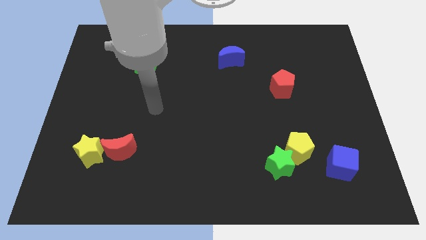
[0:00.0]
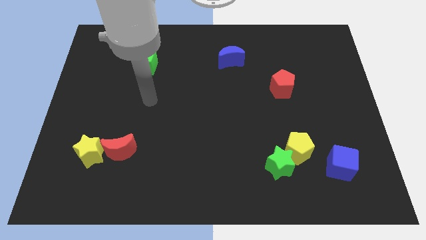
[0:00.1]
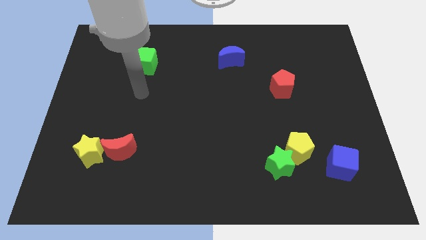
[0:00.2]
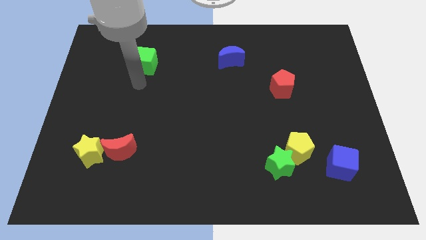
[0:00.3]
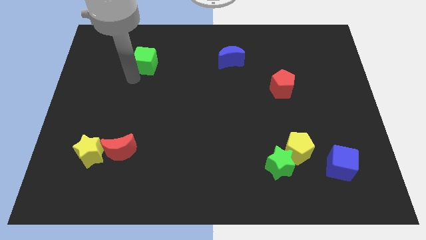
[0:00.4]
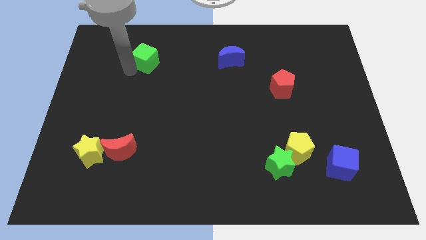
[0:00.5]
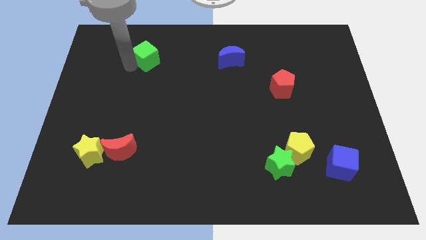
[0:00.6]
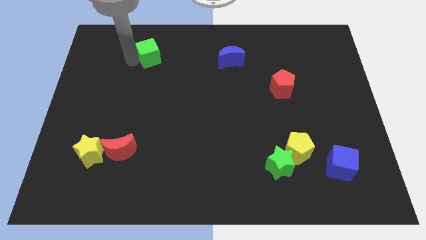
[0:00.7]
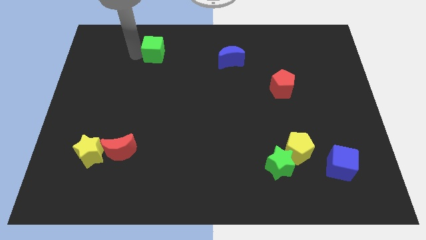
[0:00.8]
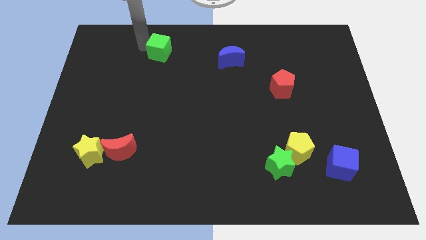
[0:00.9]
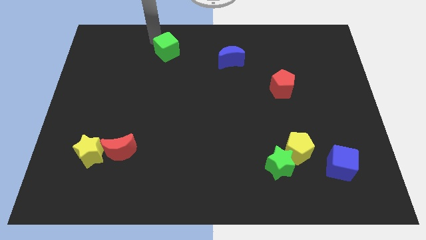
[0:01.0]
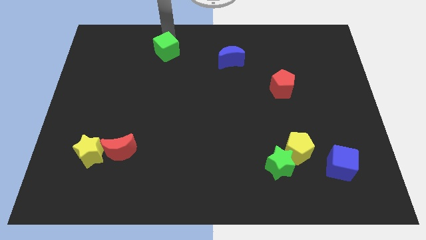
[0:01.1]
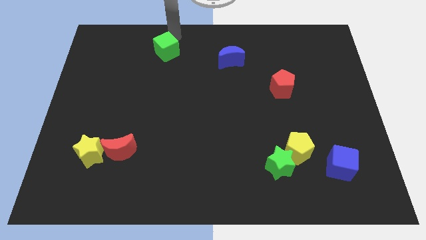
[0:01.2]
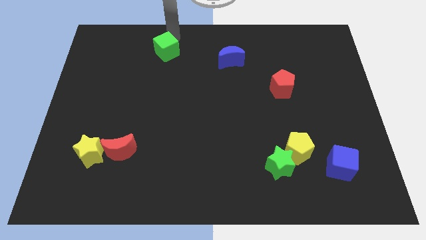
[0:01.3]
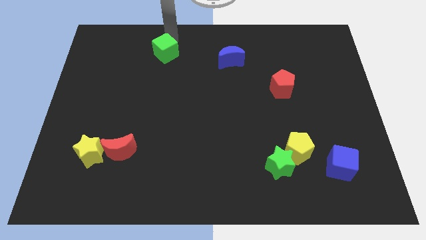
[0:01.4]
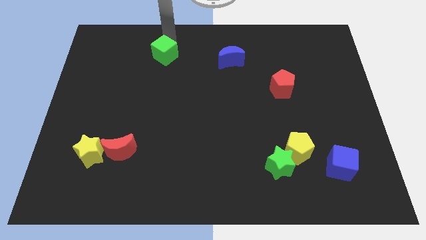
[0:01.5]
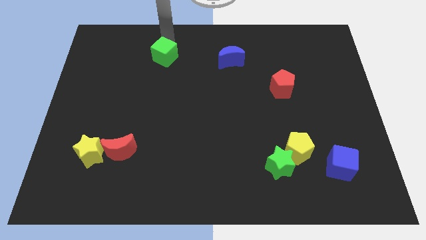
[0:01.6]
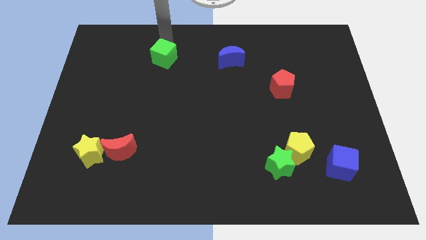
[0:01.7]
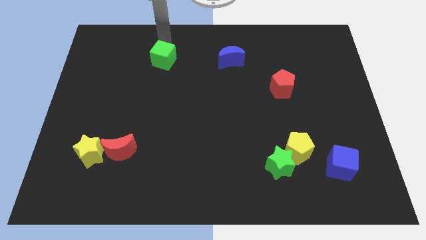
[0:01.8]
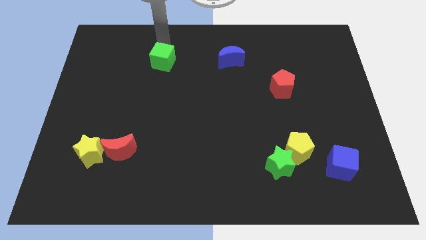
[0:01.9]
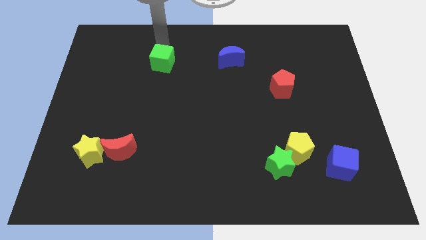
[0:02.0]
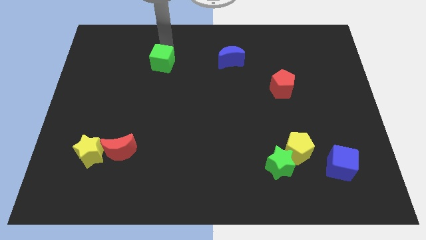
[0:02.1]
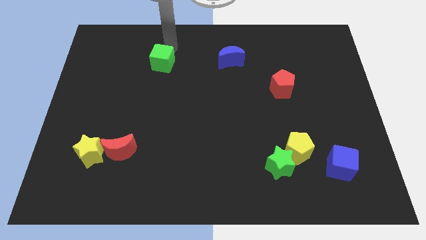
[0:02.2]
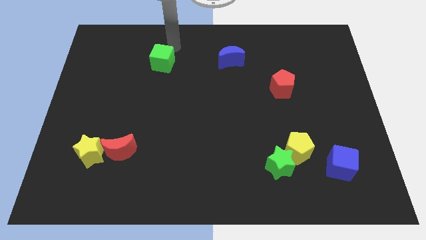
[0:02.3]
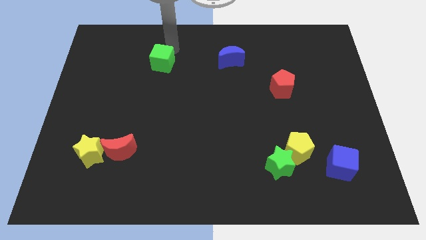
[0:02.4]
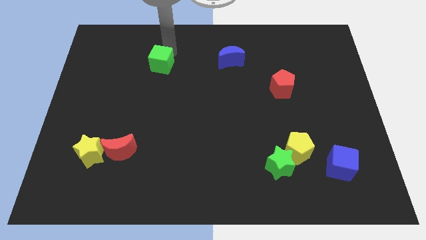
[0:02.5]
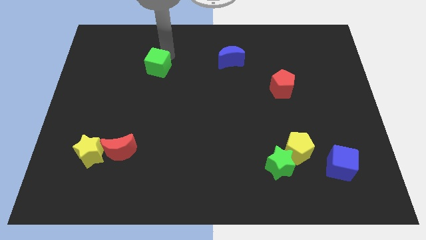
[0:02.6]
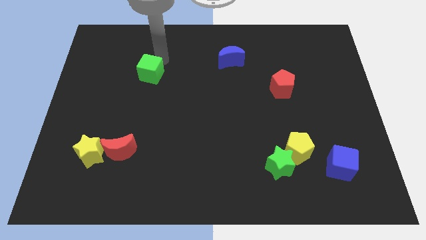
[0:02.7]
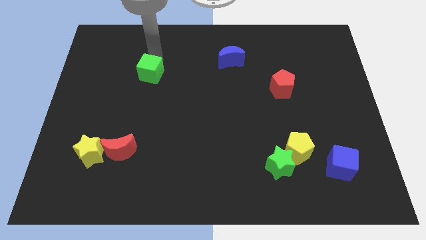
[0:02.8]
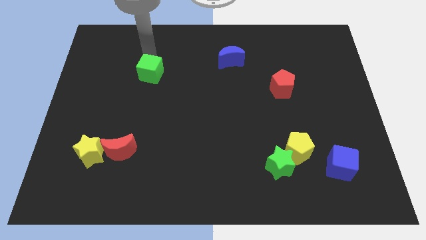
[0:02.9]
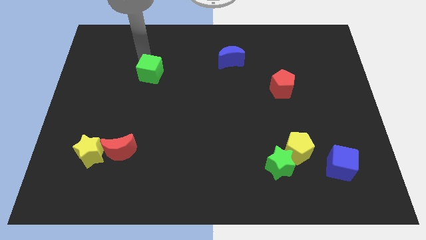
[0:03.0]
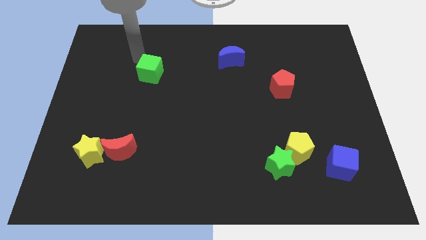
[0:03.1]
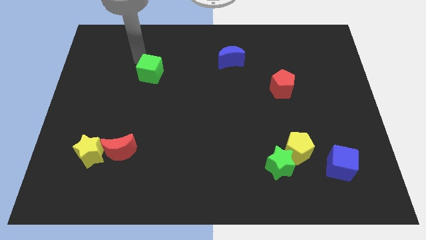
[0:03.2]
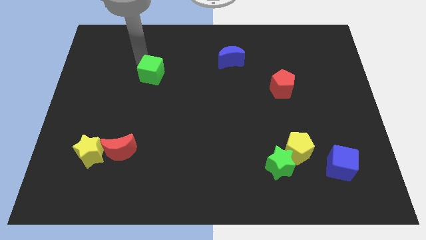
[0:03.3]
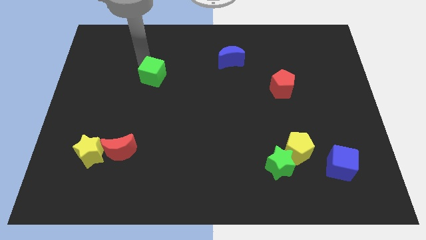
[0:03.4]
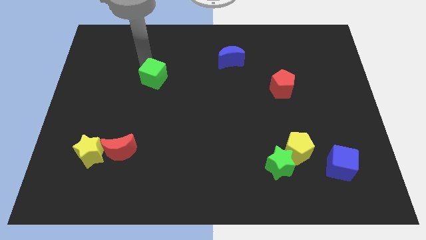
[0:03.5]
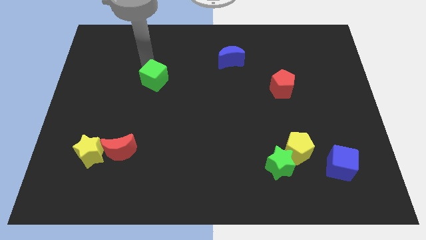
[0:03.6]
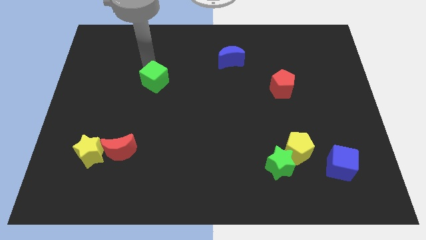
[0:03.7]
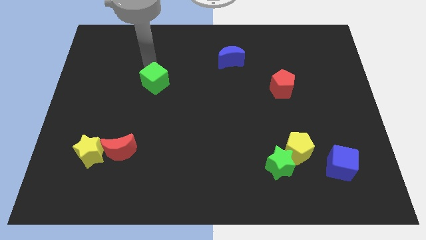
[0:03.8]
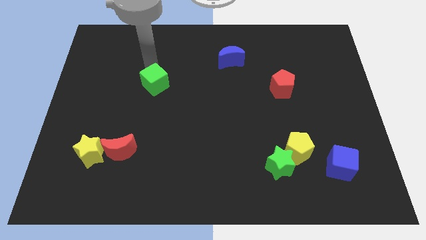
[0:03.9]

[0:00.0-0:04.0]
slightly push the green cube diagonally down and to the right

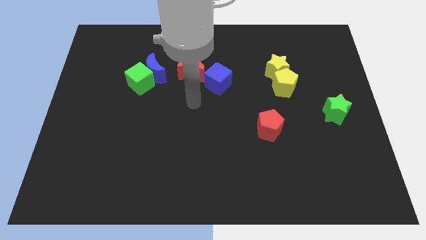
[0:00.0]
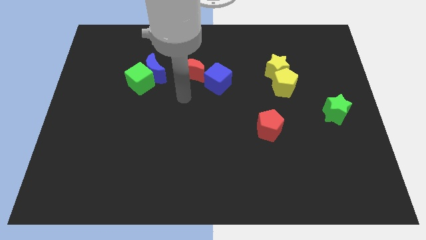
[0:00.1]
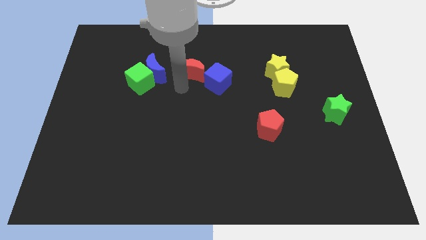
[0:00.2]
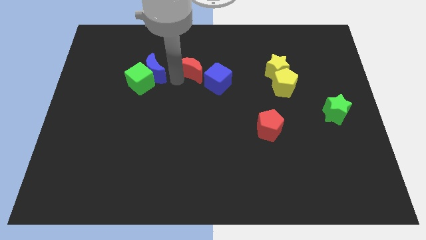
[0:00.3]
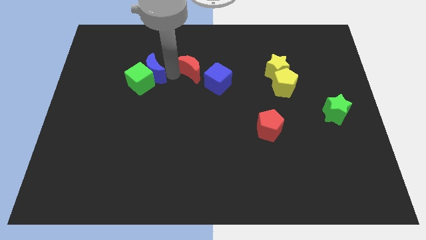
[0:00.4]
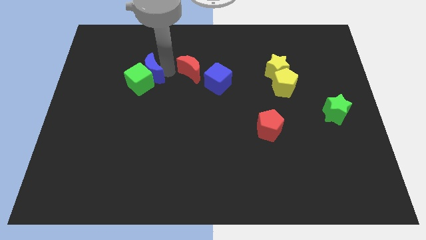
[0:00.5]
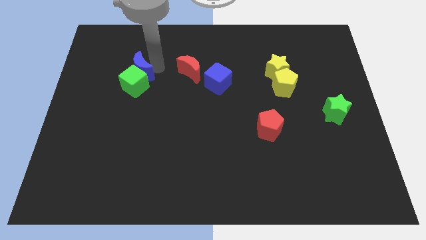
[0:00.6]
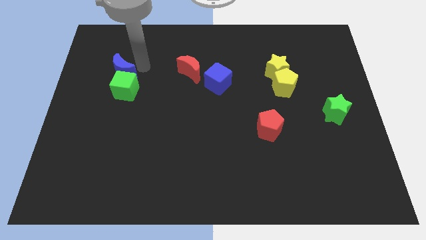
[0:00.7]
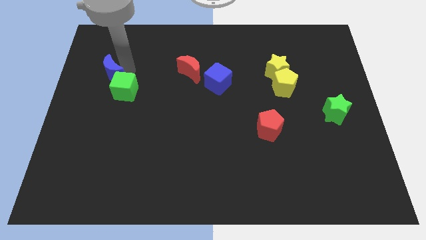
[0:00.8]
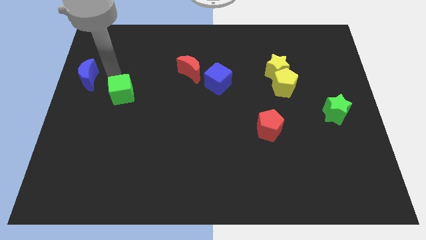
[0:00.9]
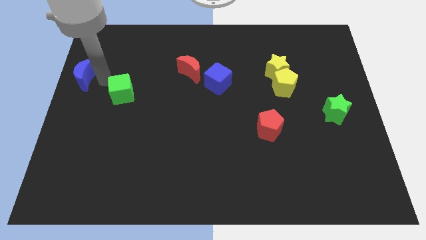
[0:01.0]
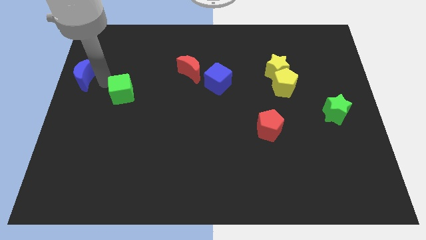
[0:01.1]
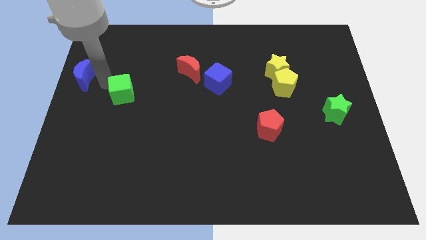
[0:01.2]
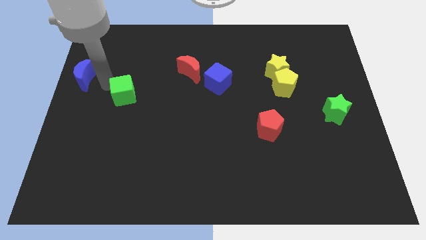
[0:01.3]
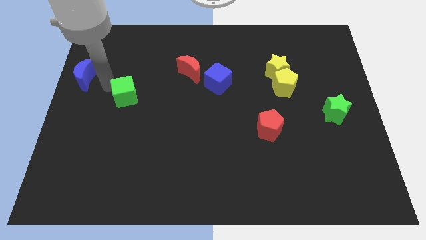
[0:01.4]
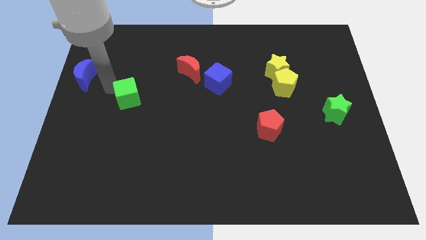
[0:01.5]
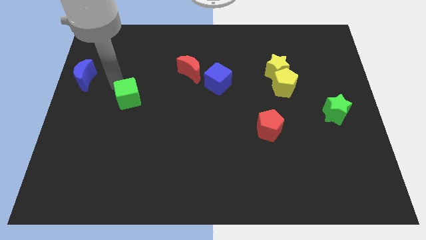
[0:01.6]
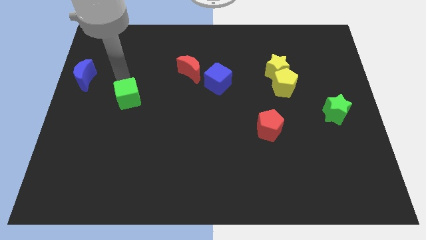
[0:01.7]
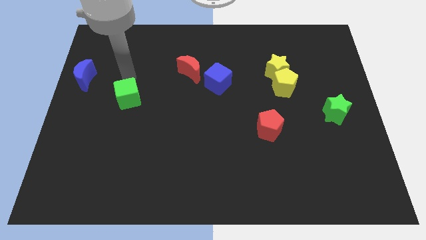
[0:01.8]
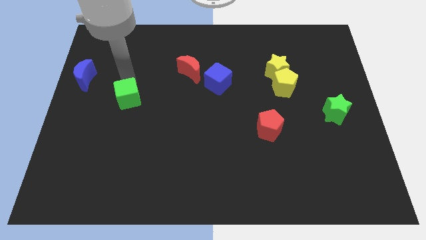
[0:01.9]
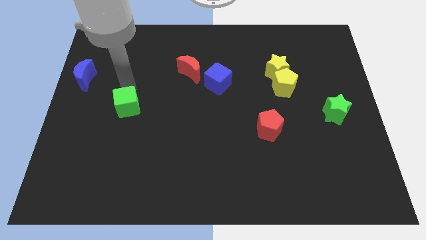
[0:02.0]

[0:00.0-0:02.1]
slightly move the green cube down

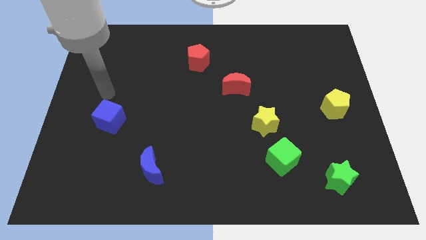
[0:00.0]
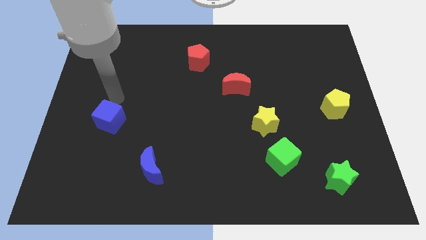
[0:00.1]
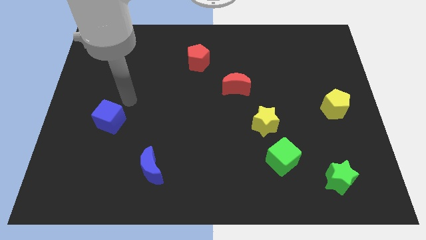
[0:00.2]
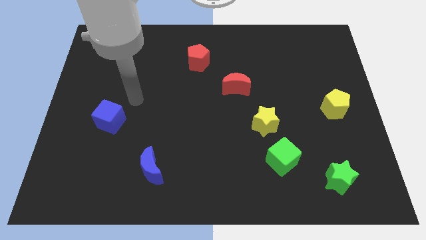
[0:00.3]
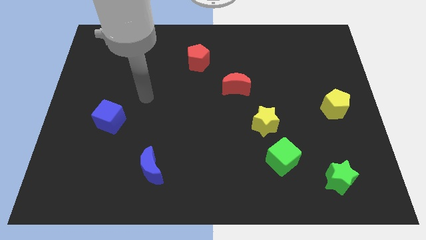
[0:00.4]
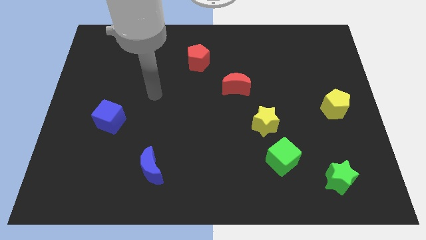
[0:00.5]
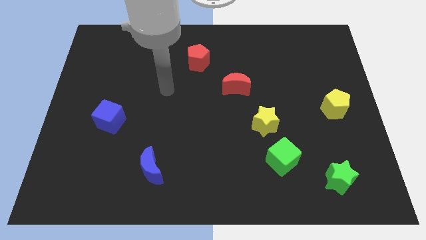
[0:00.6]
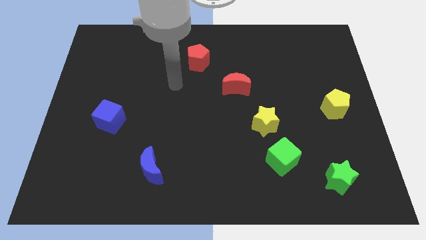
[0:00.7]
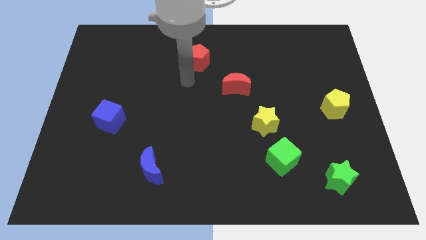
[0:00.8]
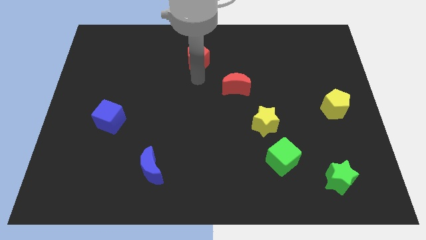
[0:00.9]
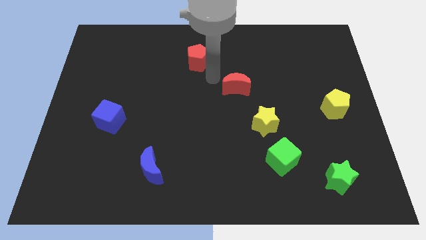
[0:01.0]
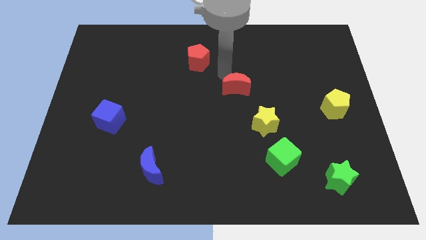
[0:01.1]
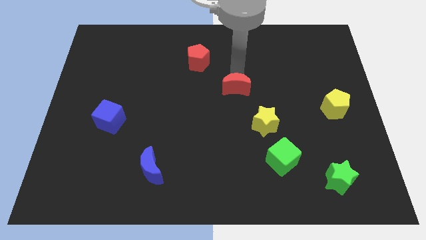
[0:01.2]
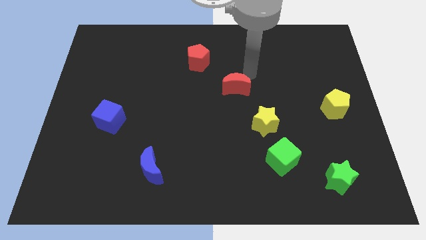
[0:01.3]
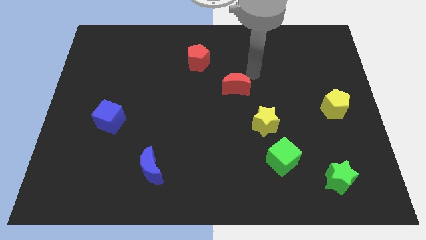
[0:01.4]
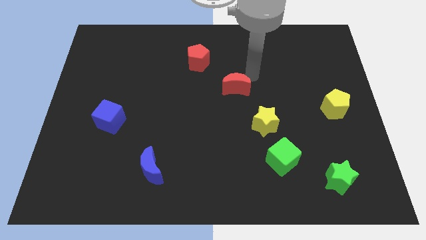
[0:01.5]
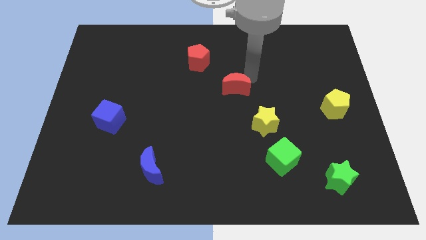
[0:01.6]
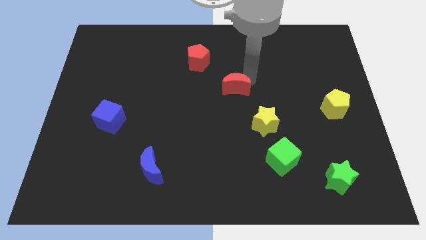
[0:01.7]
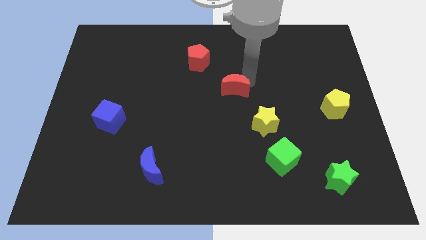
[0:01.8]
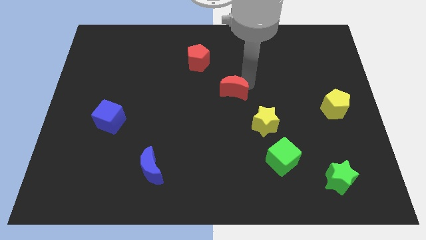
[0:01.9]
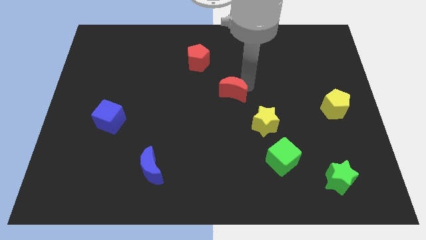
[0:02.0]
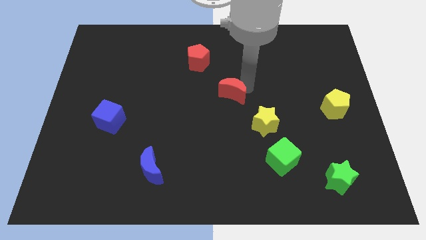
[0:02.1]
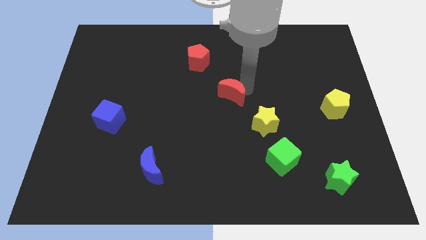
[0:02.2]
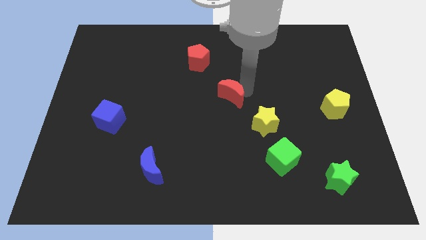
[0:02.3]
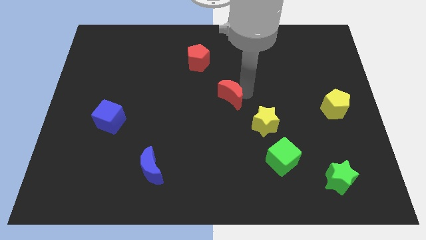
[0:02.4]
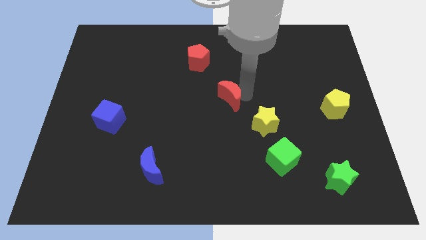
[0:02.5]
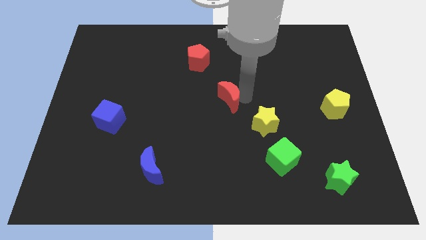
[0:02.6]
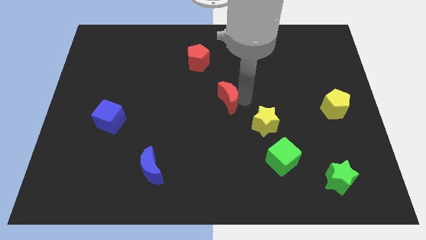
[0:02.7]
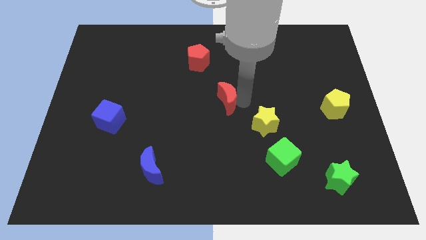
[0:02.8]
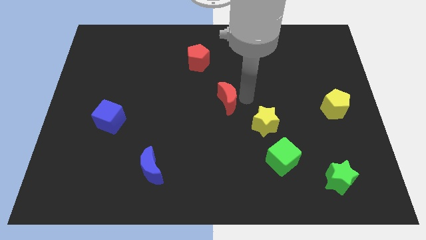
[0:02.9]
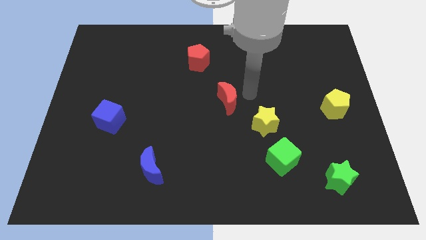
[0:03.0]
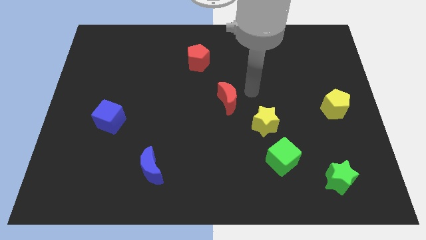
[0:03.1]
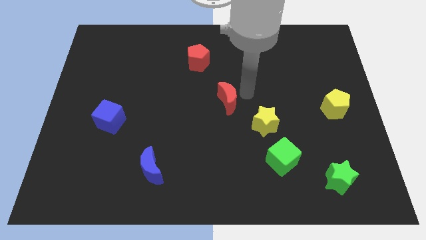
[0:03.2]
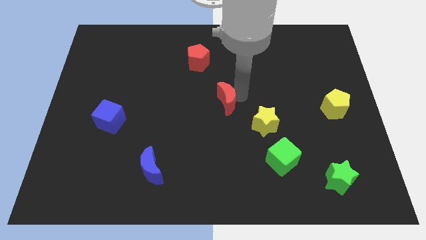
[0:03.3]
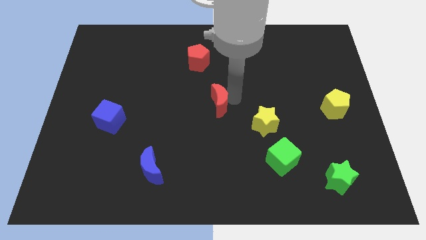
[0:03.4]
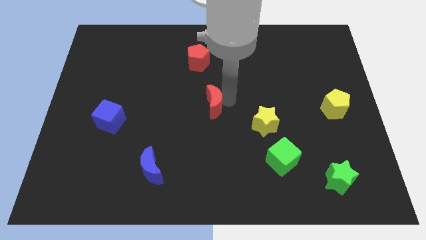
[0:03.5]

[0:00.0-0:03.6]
push the red moon a little down and then to the left
